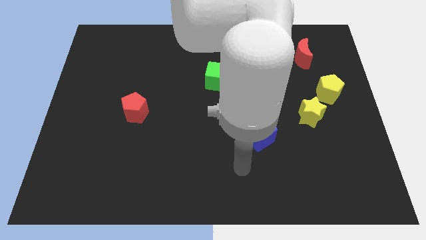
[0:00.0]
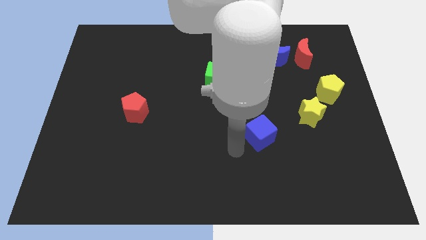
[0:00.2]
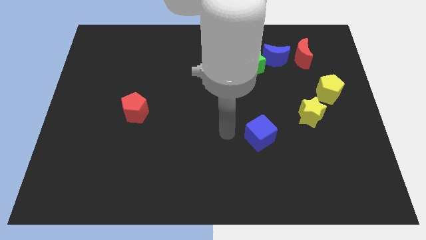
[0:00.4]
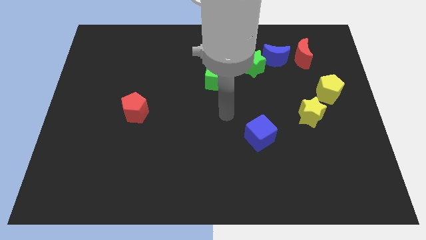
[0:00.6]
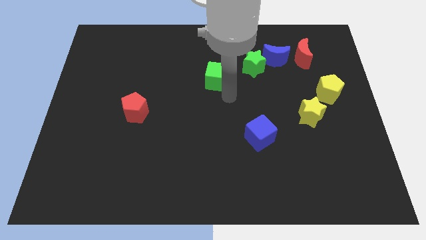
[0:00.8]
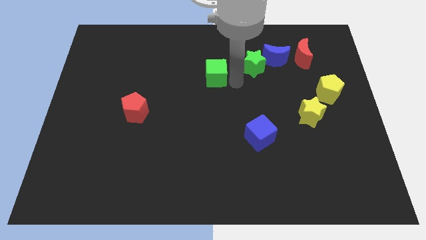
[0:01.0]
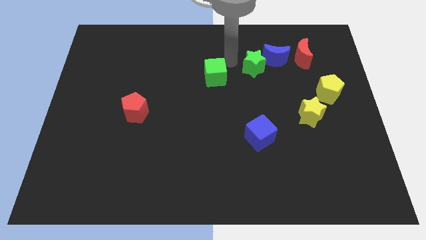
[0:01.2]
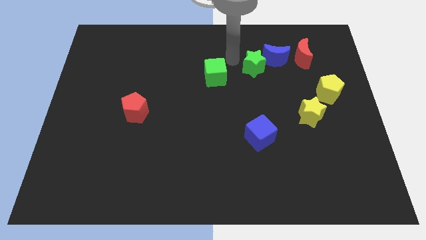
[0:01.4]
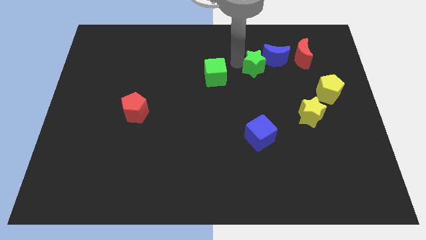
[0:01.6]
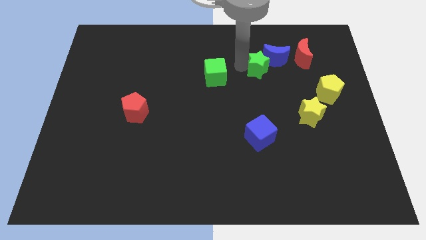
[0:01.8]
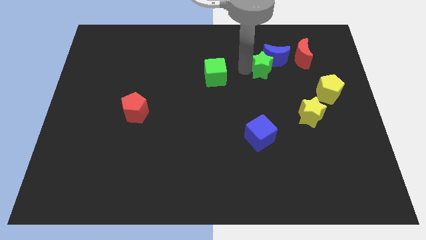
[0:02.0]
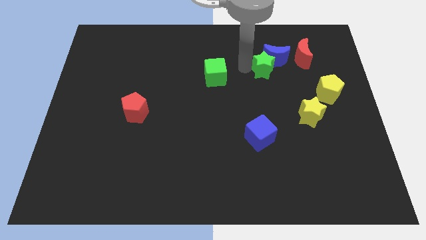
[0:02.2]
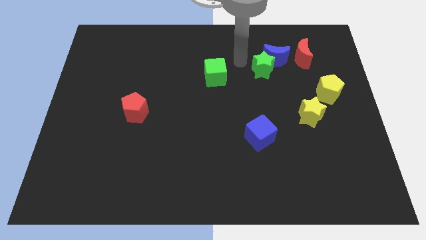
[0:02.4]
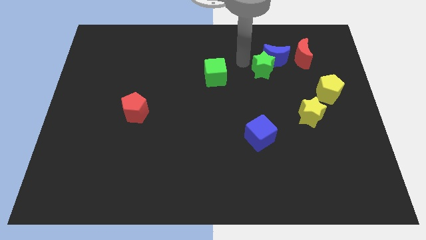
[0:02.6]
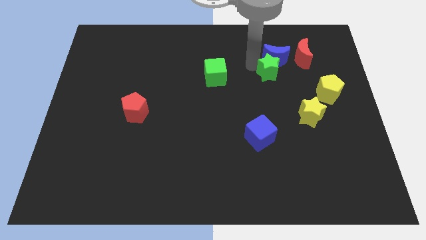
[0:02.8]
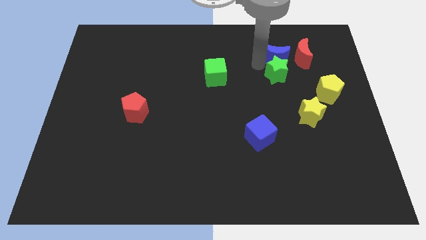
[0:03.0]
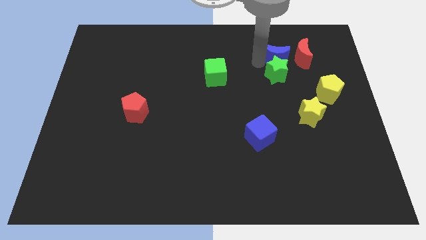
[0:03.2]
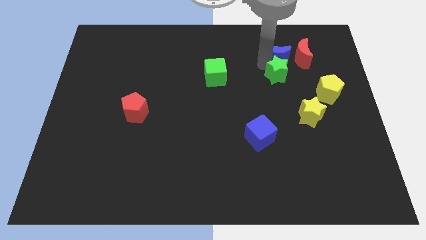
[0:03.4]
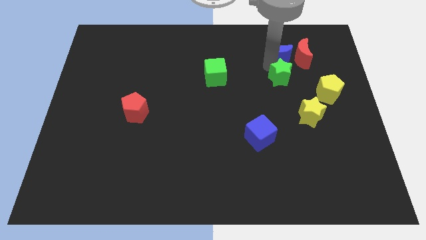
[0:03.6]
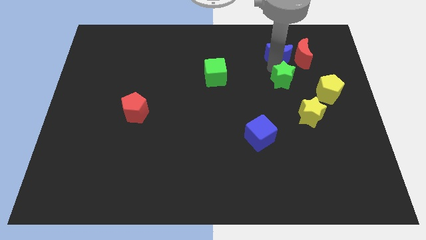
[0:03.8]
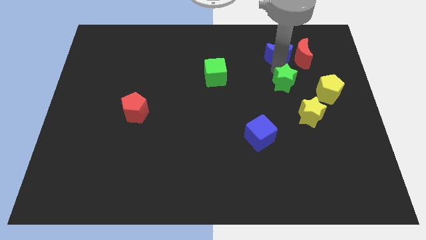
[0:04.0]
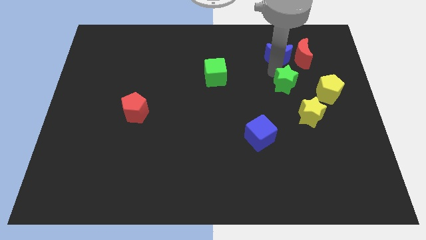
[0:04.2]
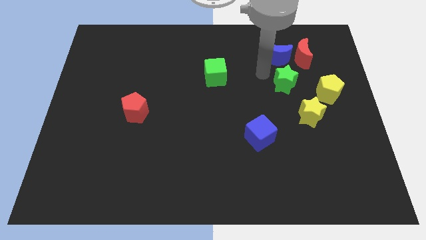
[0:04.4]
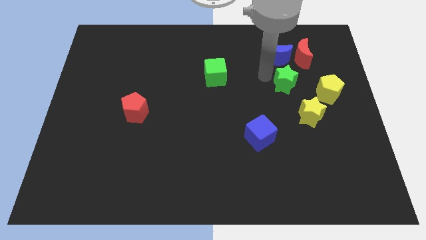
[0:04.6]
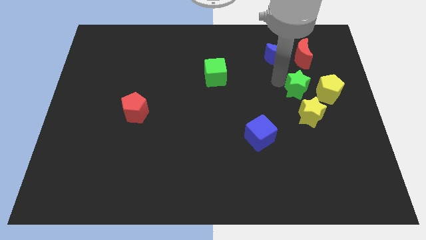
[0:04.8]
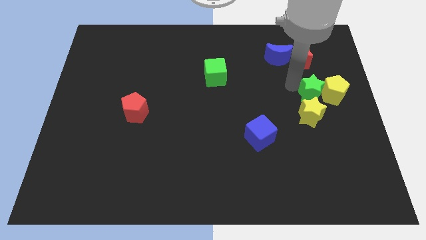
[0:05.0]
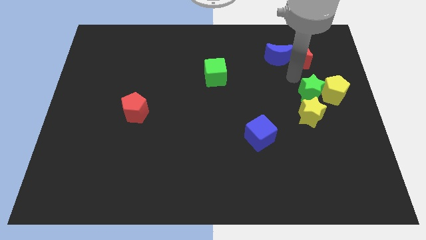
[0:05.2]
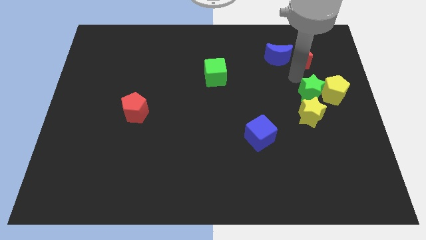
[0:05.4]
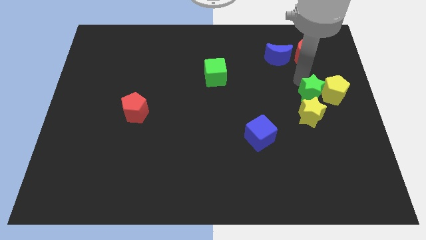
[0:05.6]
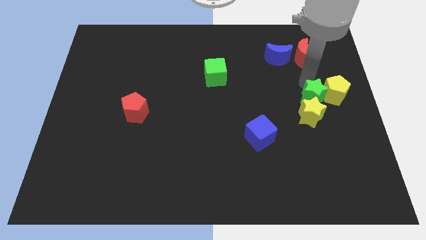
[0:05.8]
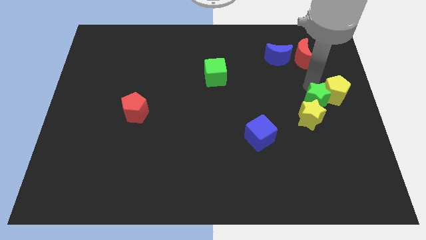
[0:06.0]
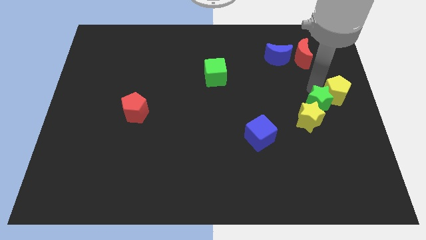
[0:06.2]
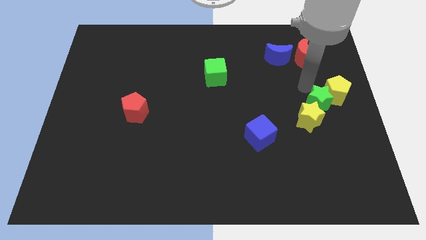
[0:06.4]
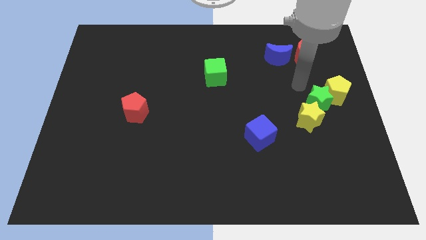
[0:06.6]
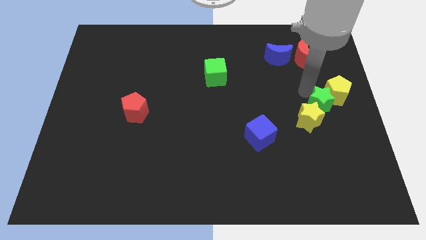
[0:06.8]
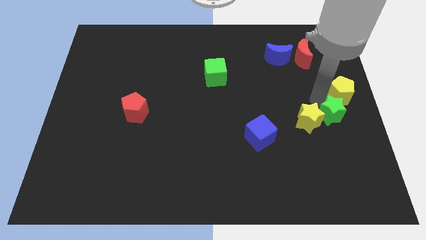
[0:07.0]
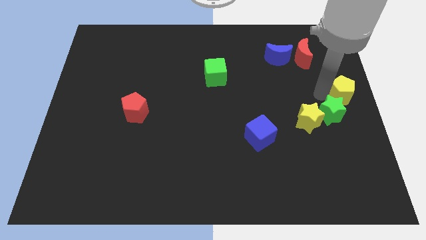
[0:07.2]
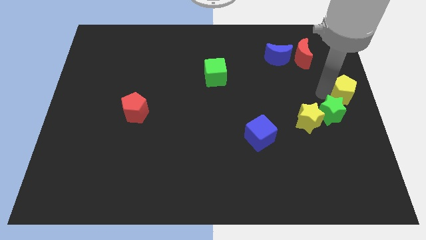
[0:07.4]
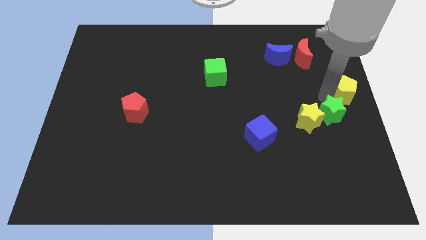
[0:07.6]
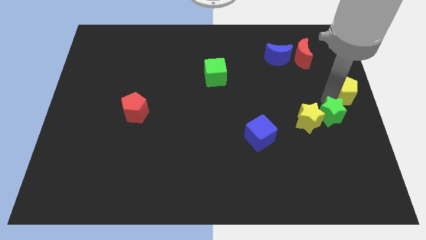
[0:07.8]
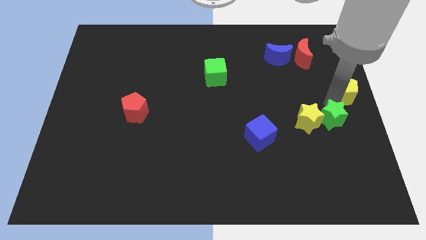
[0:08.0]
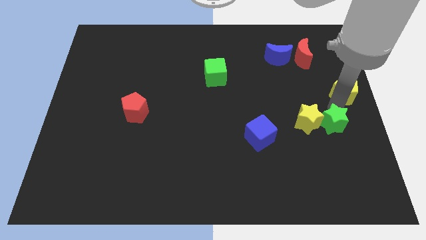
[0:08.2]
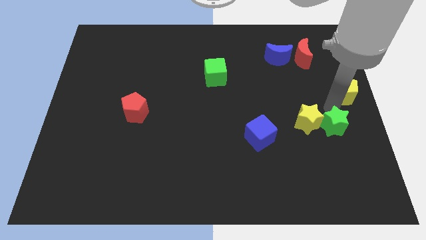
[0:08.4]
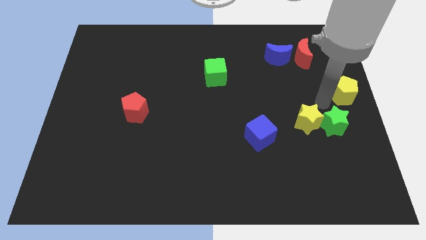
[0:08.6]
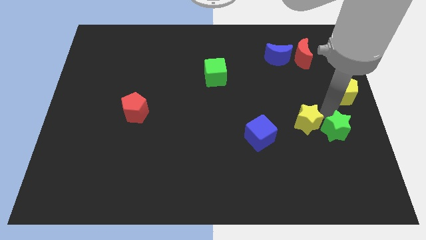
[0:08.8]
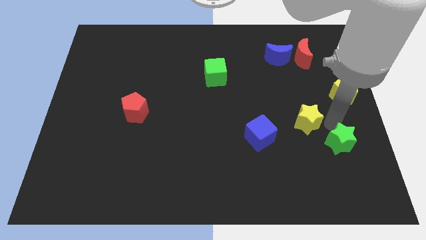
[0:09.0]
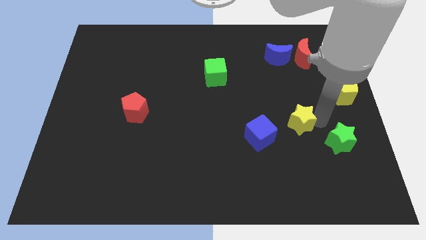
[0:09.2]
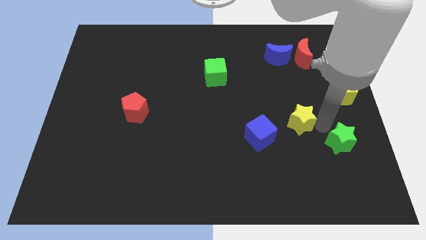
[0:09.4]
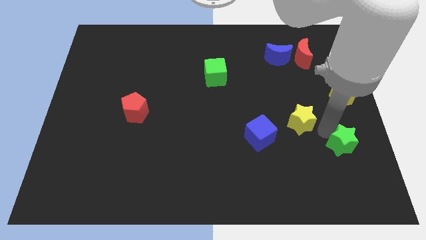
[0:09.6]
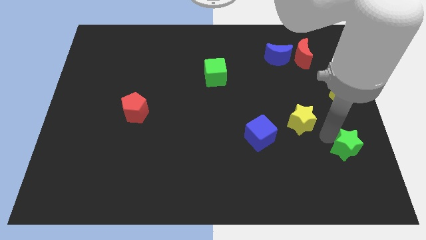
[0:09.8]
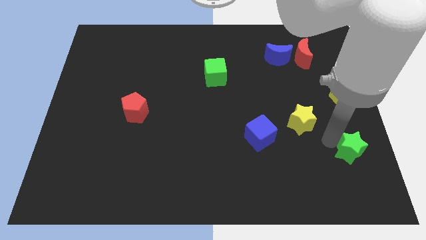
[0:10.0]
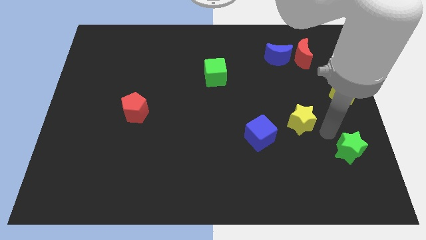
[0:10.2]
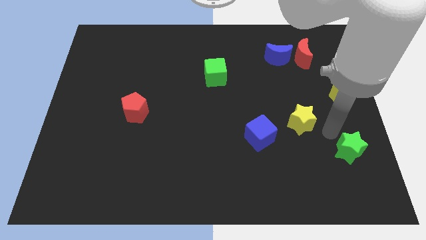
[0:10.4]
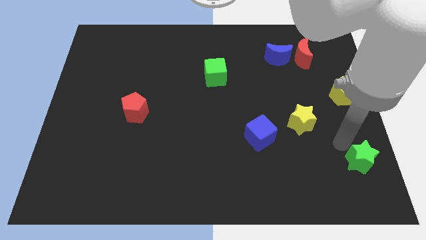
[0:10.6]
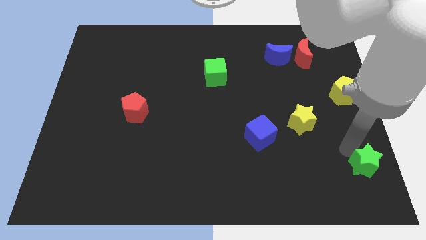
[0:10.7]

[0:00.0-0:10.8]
put the green star to the lower right corner

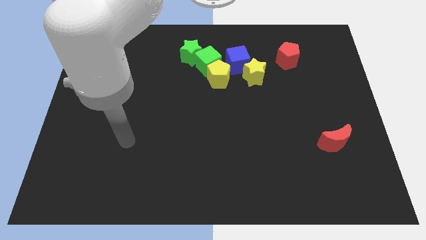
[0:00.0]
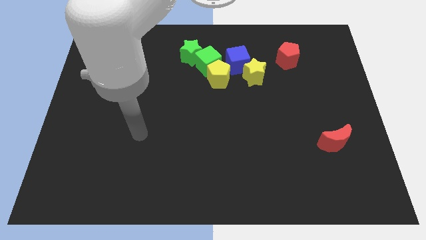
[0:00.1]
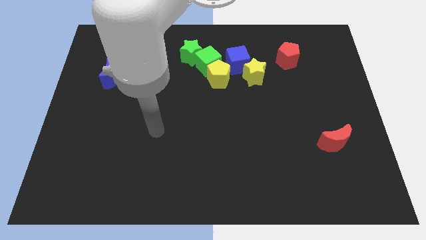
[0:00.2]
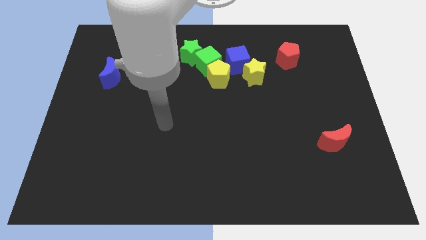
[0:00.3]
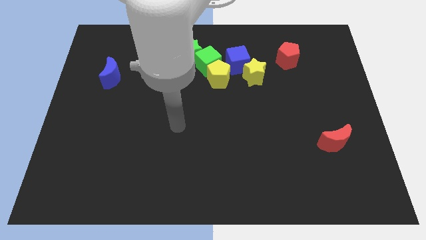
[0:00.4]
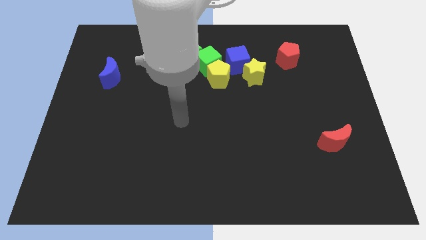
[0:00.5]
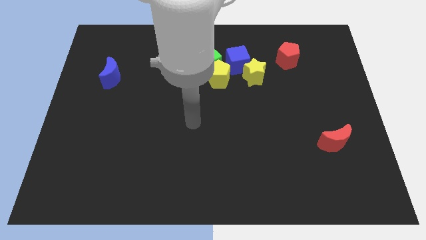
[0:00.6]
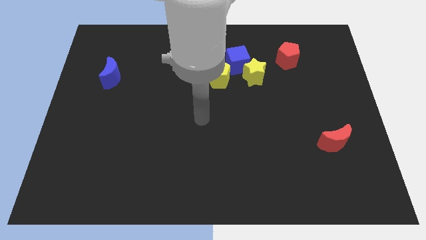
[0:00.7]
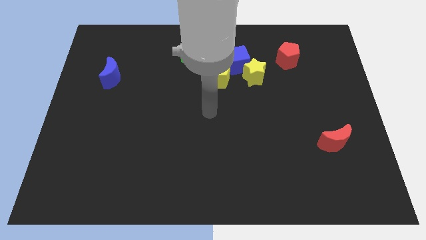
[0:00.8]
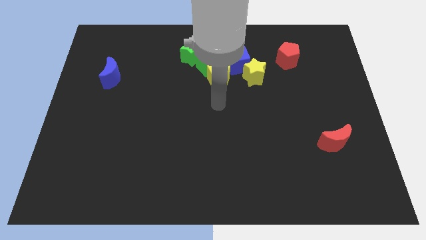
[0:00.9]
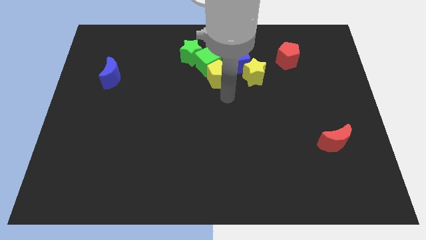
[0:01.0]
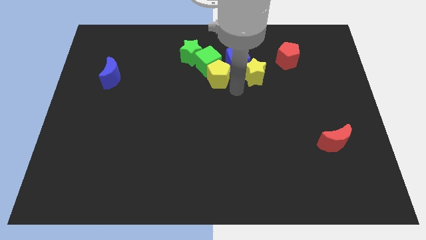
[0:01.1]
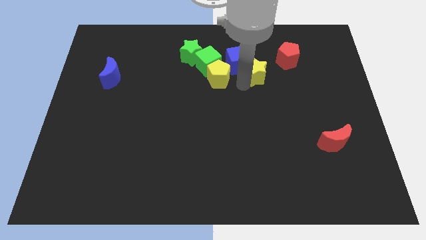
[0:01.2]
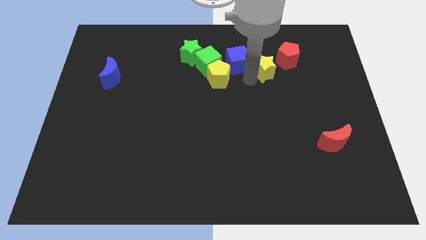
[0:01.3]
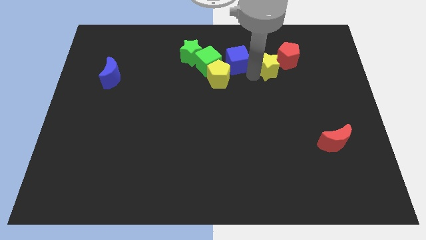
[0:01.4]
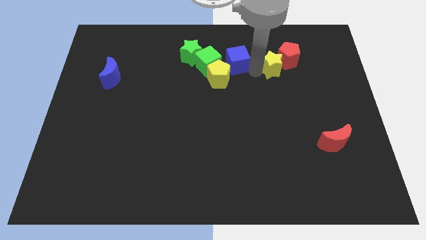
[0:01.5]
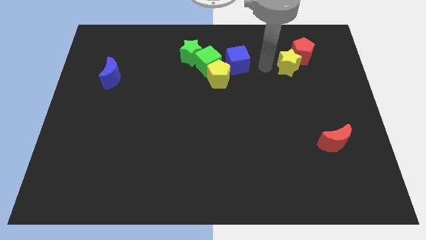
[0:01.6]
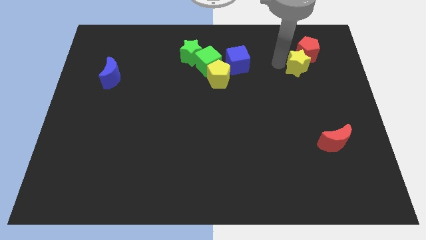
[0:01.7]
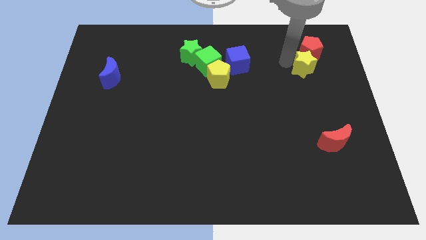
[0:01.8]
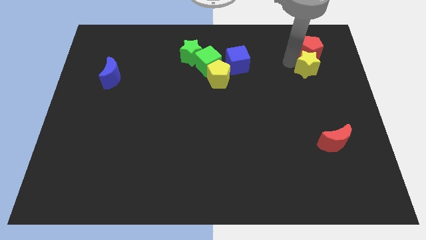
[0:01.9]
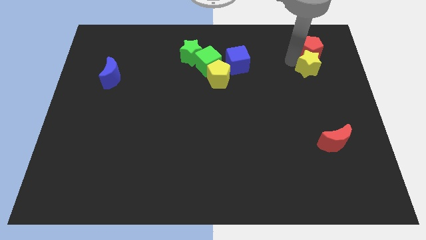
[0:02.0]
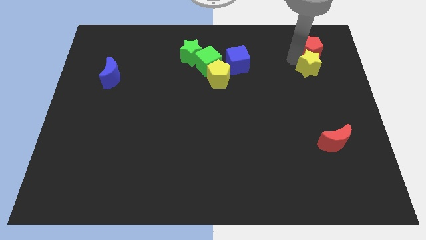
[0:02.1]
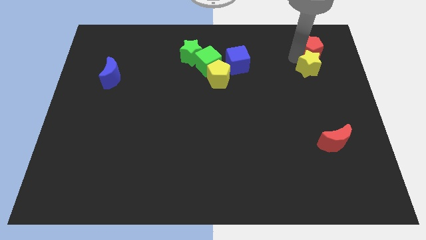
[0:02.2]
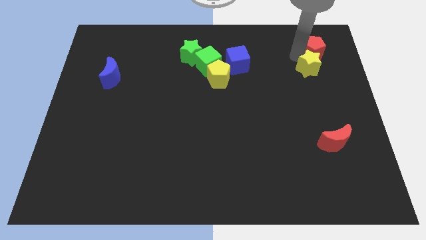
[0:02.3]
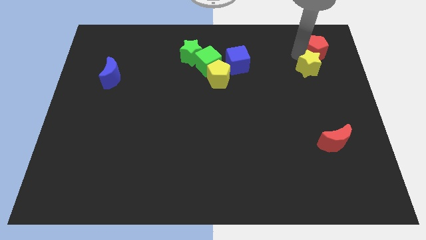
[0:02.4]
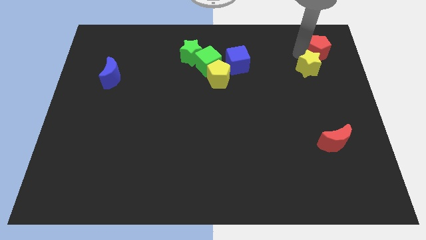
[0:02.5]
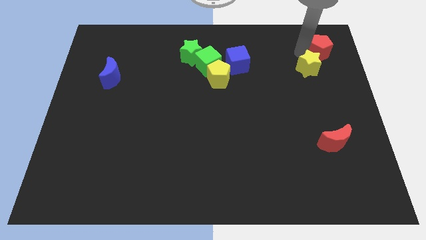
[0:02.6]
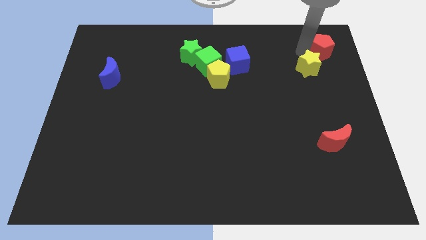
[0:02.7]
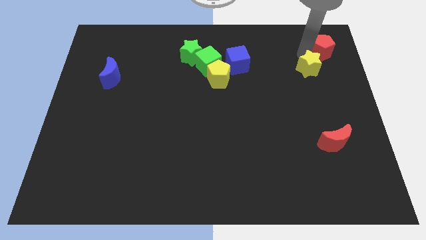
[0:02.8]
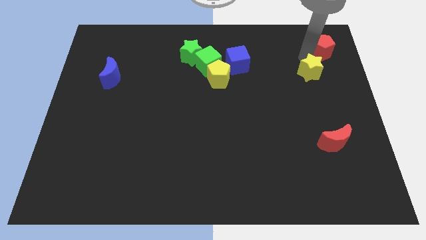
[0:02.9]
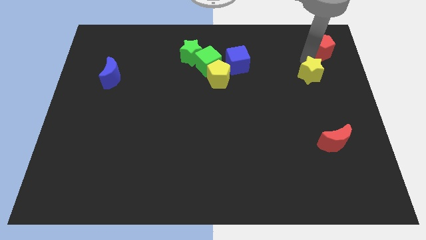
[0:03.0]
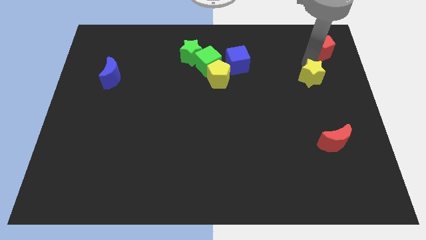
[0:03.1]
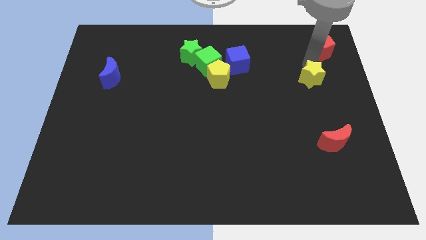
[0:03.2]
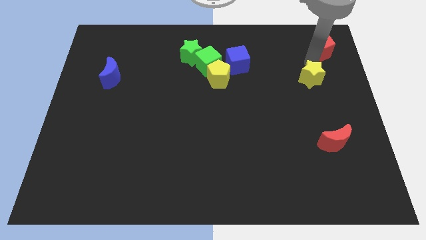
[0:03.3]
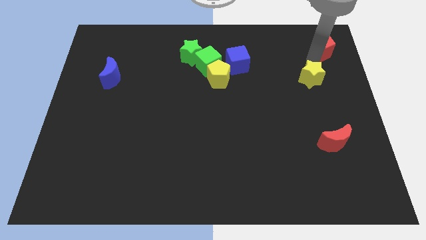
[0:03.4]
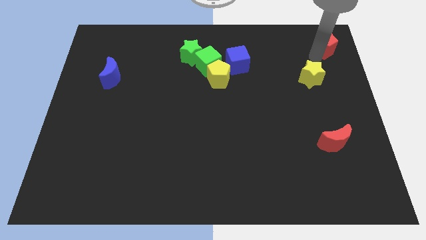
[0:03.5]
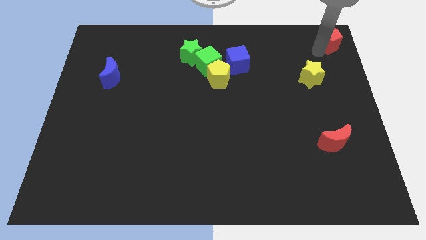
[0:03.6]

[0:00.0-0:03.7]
put the red pentagon to the top right
